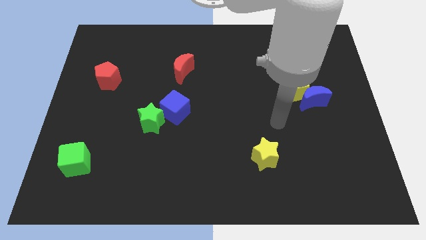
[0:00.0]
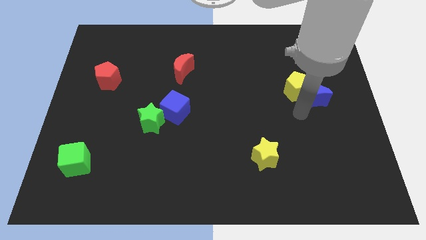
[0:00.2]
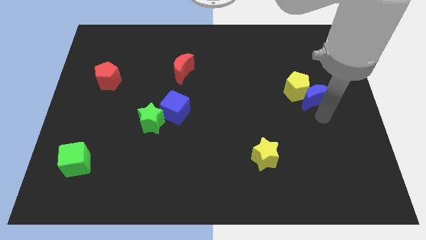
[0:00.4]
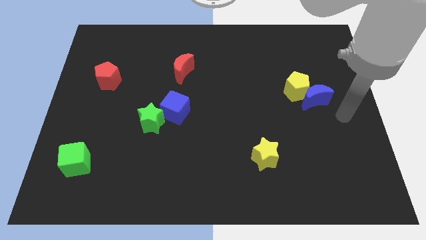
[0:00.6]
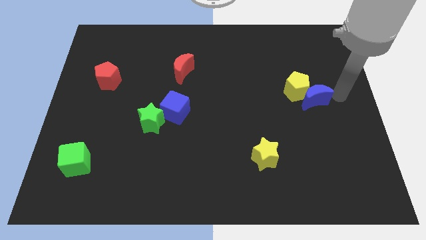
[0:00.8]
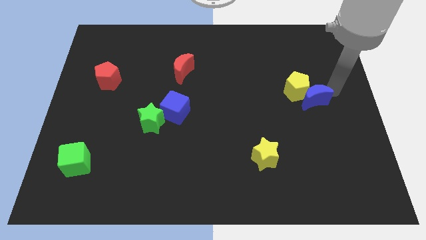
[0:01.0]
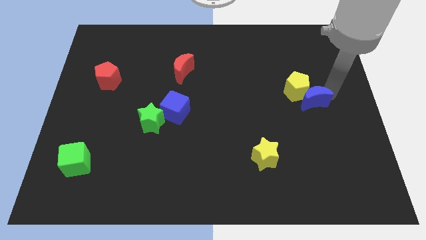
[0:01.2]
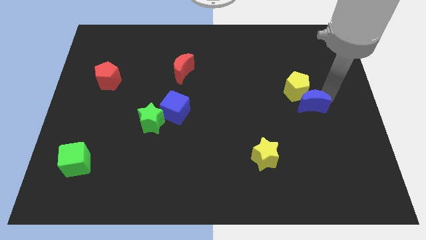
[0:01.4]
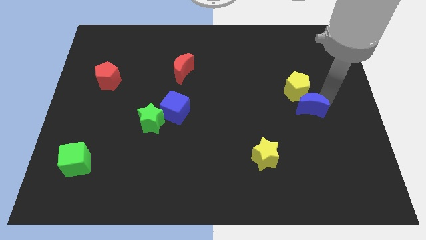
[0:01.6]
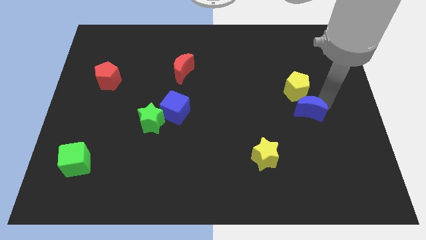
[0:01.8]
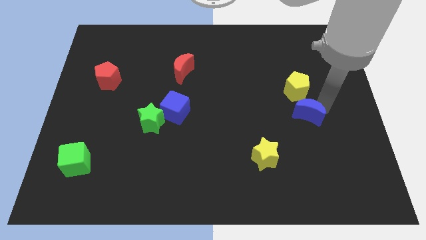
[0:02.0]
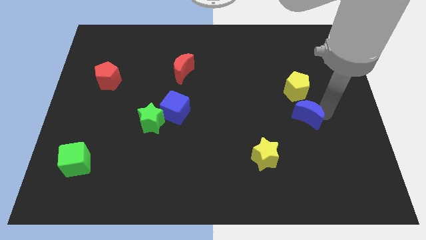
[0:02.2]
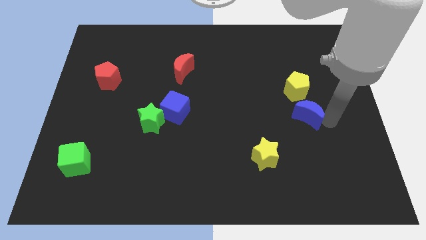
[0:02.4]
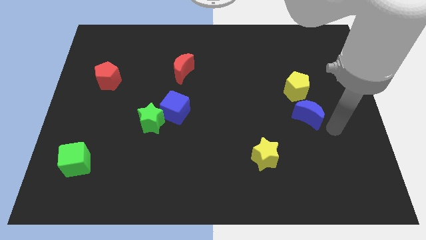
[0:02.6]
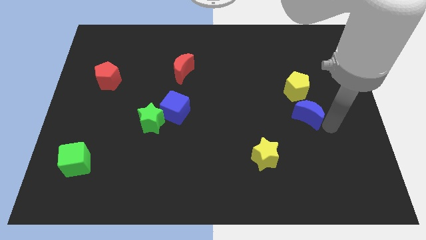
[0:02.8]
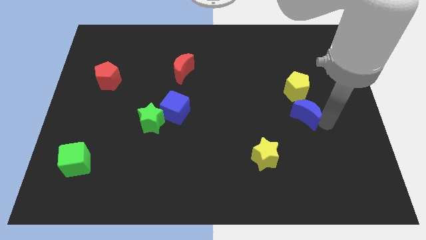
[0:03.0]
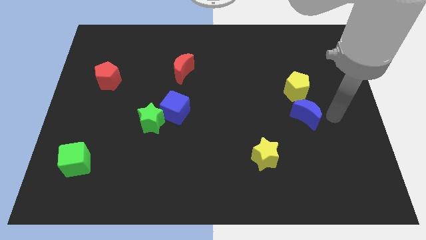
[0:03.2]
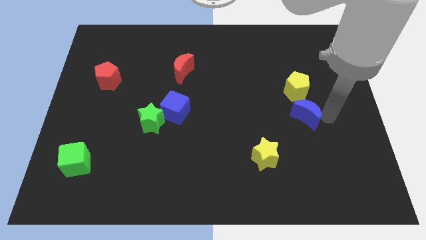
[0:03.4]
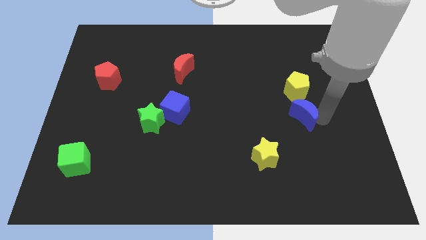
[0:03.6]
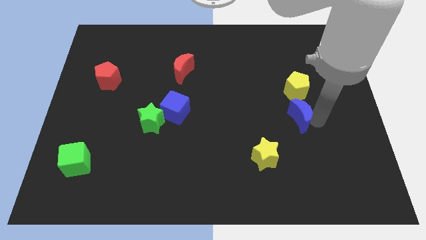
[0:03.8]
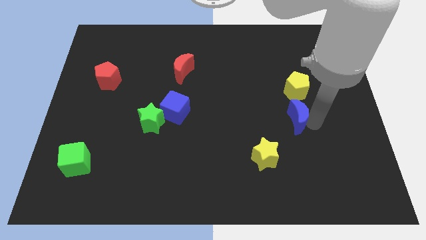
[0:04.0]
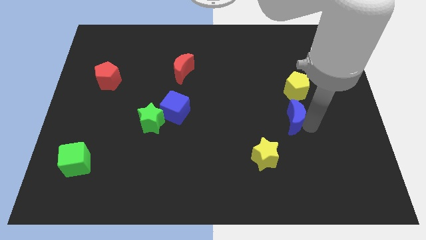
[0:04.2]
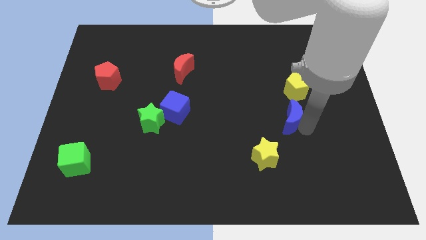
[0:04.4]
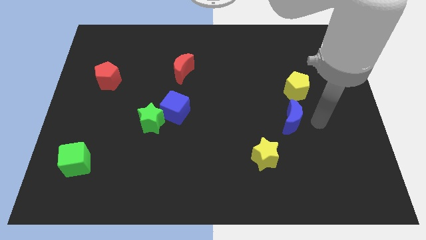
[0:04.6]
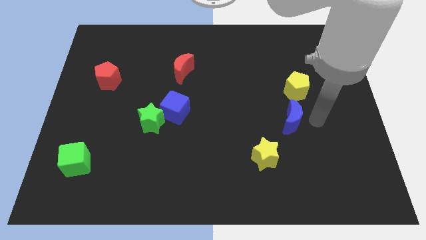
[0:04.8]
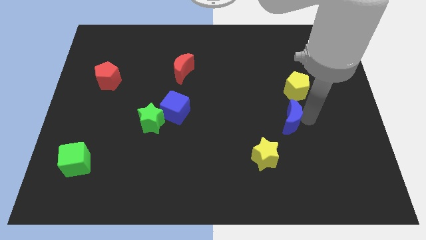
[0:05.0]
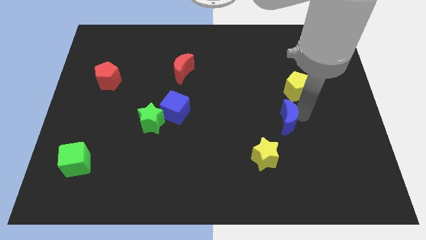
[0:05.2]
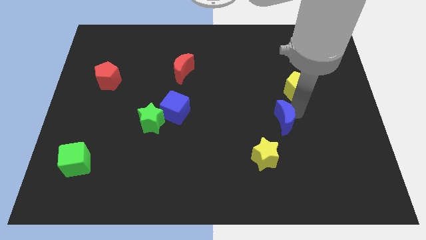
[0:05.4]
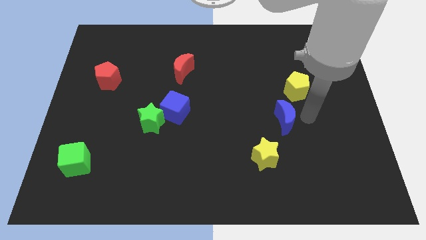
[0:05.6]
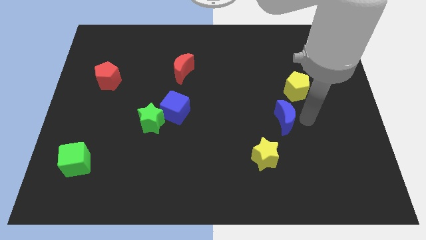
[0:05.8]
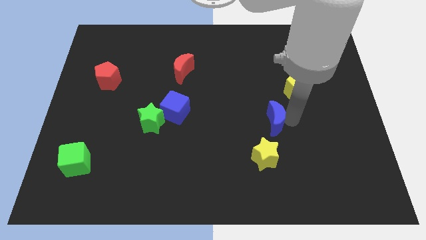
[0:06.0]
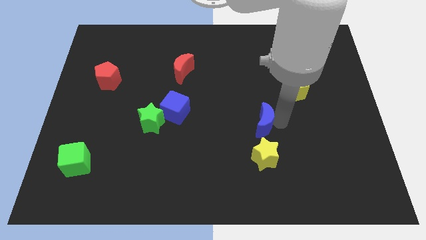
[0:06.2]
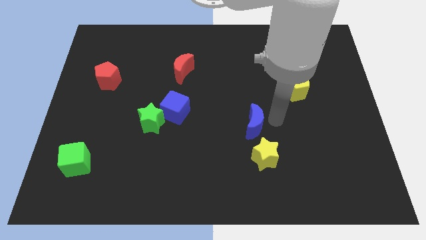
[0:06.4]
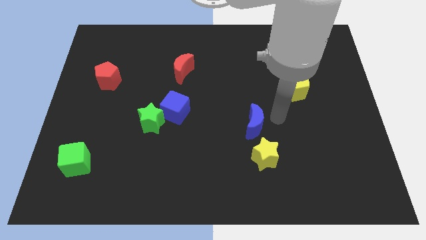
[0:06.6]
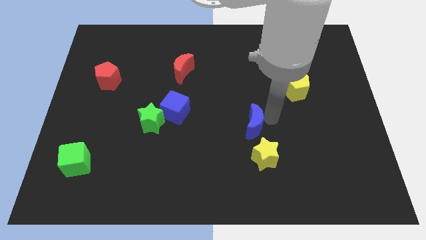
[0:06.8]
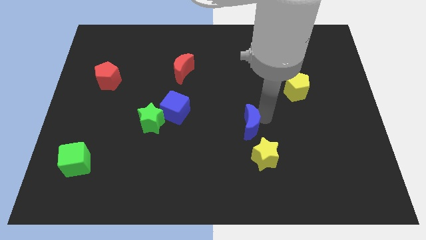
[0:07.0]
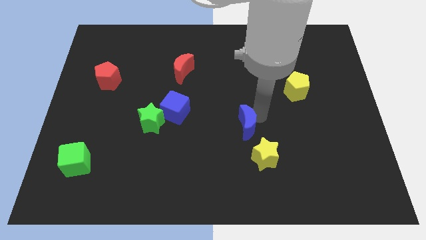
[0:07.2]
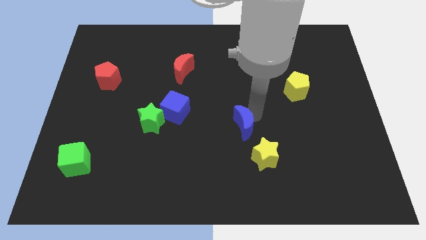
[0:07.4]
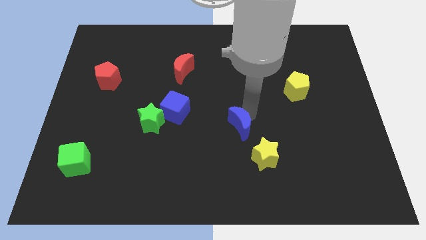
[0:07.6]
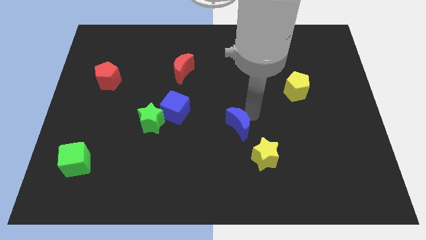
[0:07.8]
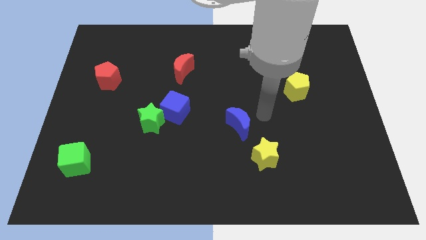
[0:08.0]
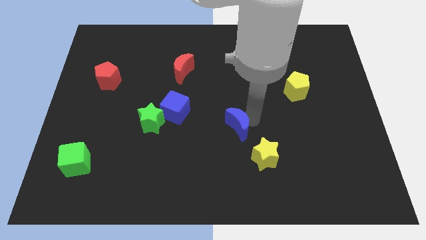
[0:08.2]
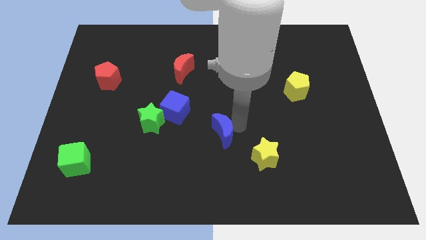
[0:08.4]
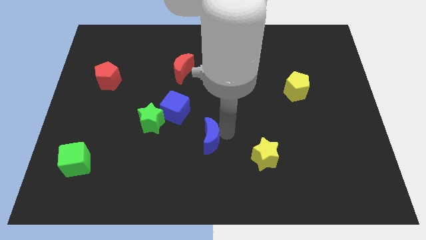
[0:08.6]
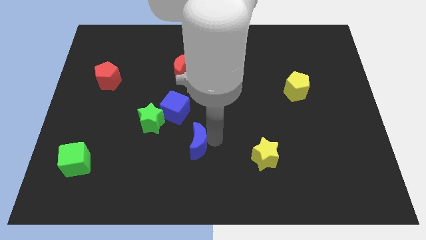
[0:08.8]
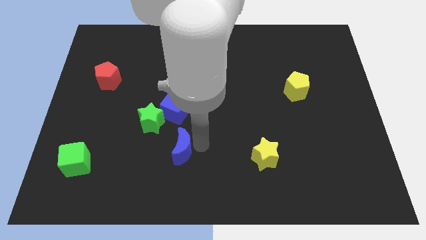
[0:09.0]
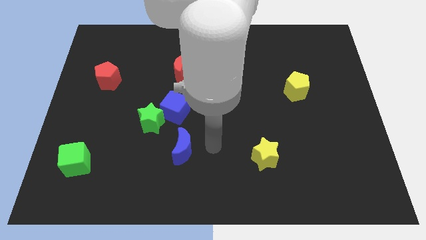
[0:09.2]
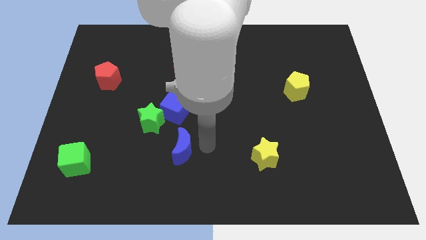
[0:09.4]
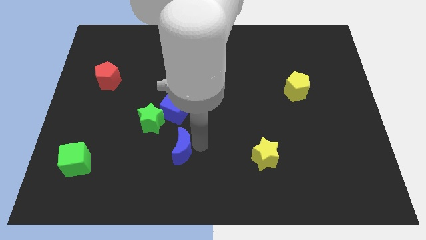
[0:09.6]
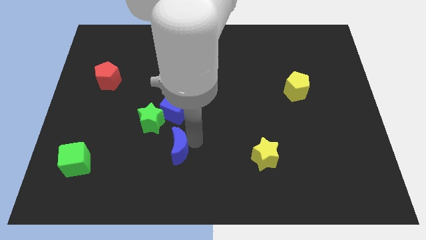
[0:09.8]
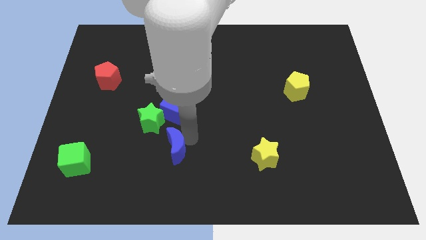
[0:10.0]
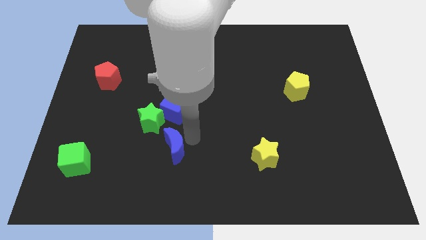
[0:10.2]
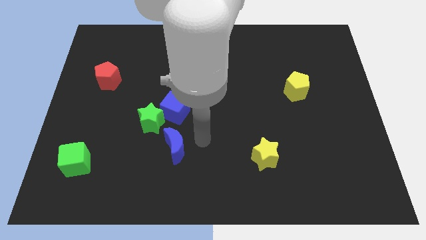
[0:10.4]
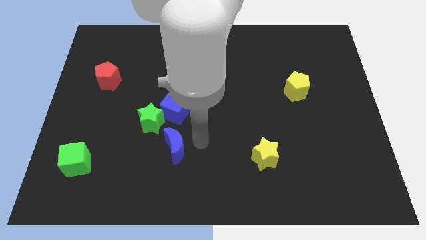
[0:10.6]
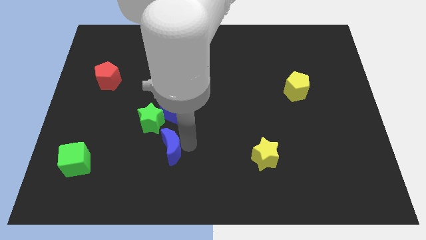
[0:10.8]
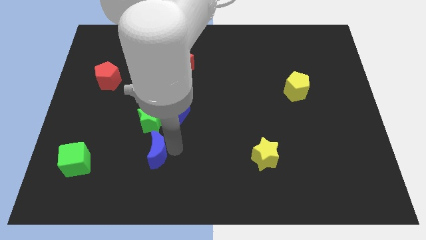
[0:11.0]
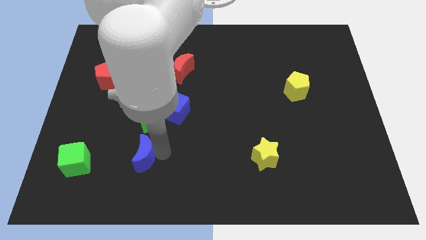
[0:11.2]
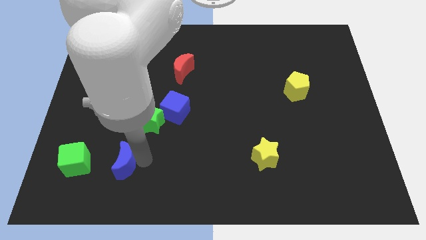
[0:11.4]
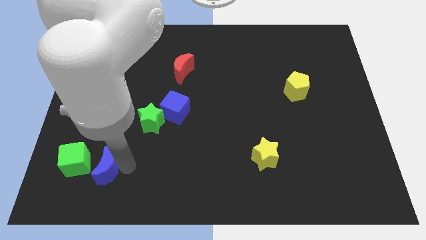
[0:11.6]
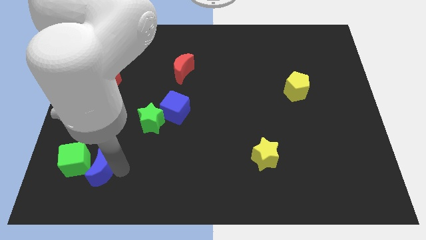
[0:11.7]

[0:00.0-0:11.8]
push the blue moon close to the green cube

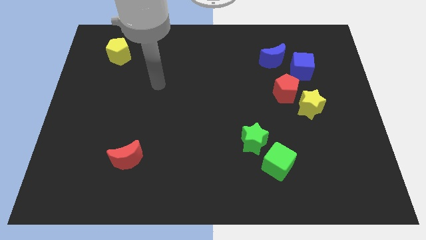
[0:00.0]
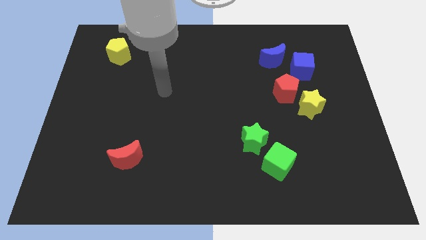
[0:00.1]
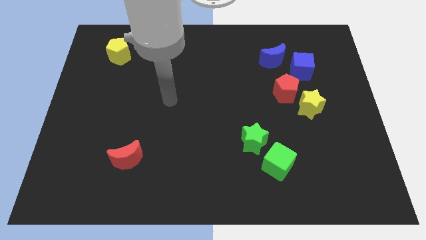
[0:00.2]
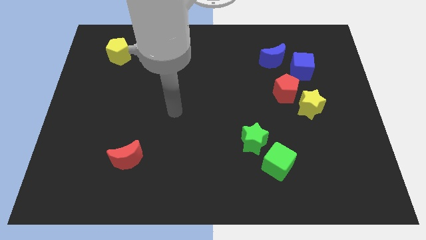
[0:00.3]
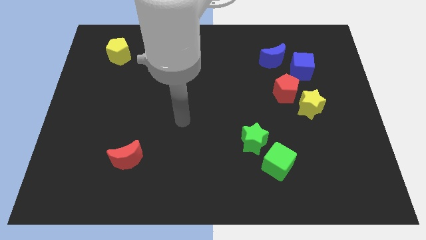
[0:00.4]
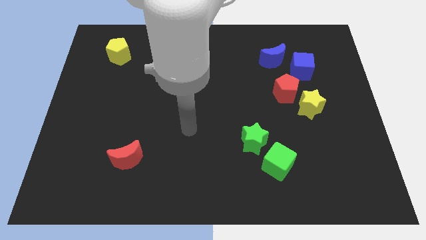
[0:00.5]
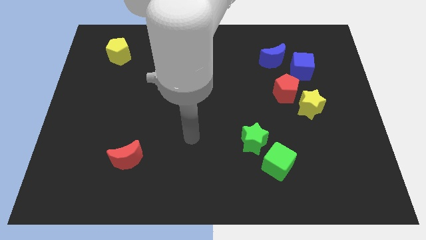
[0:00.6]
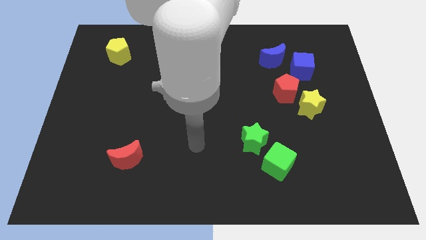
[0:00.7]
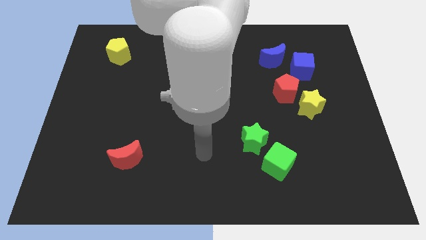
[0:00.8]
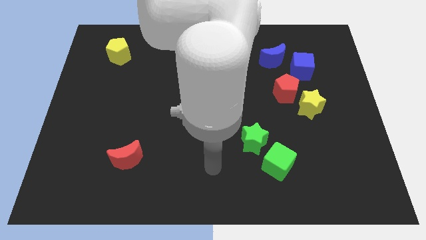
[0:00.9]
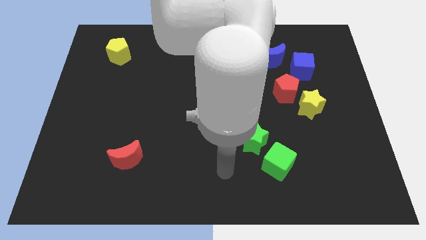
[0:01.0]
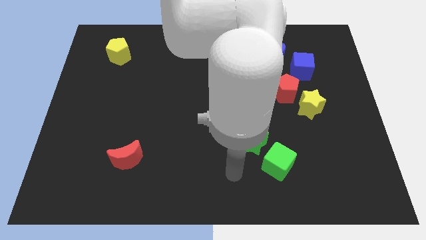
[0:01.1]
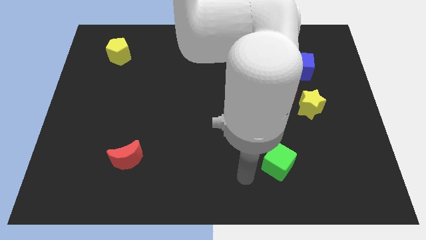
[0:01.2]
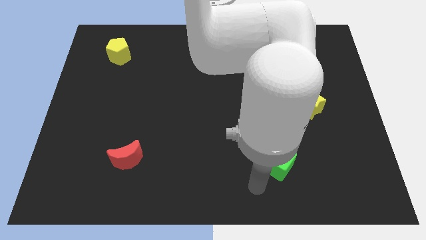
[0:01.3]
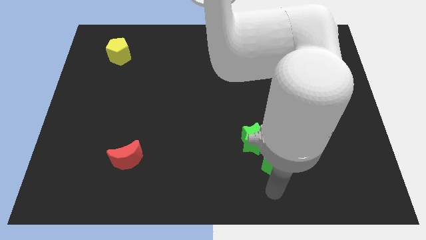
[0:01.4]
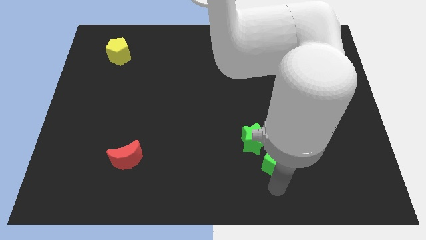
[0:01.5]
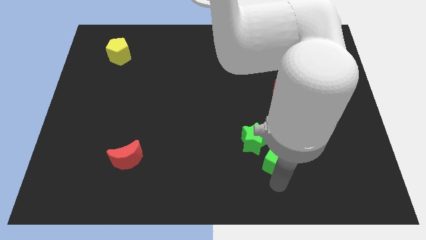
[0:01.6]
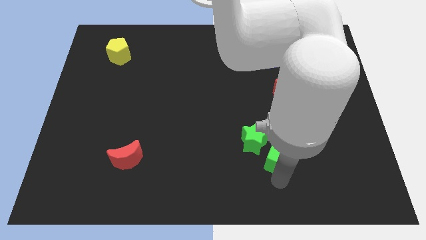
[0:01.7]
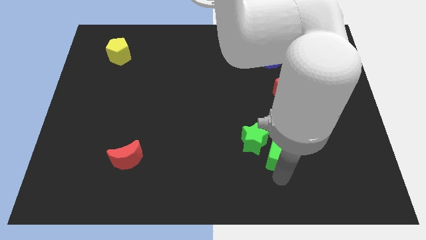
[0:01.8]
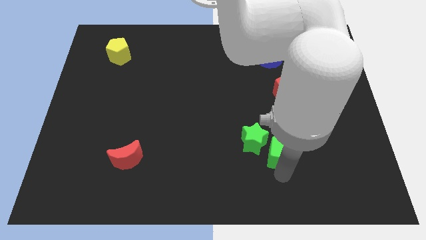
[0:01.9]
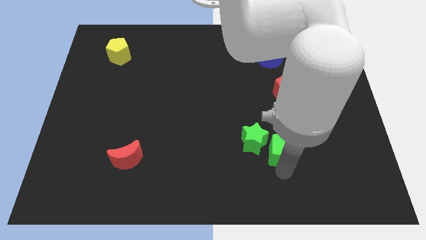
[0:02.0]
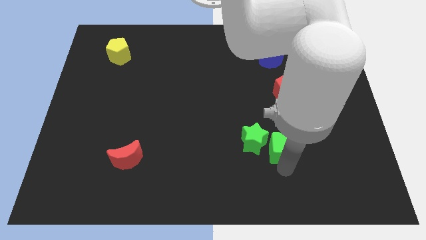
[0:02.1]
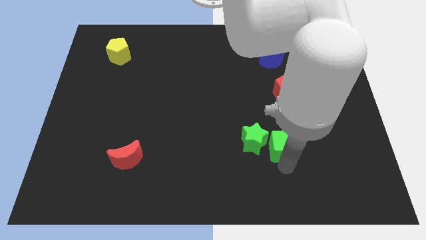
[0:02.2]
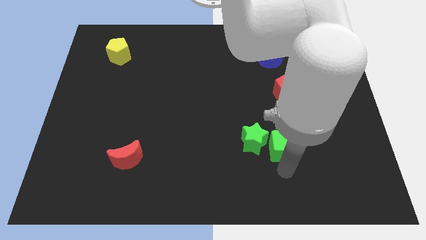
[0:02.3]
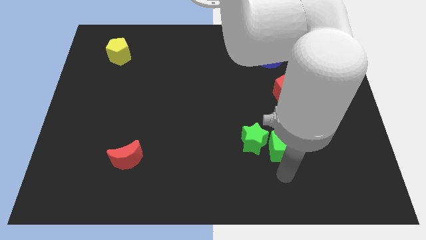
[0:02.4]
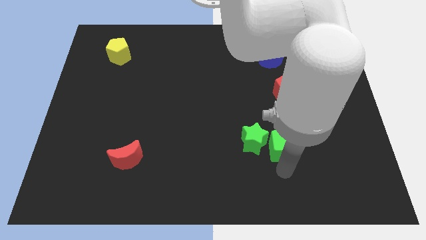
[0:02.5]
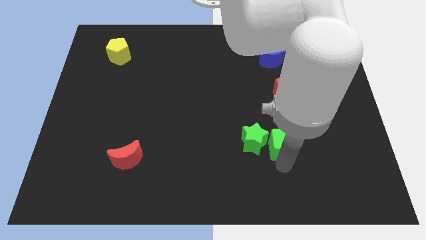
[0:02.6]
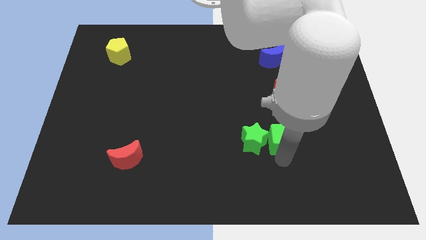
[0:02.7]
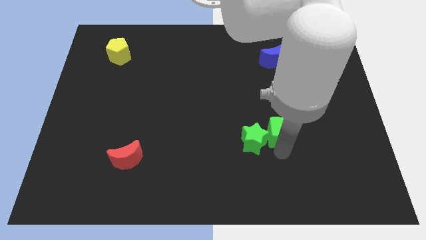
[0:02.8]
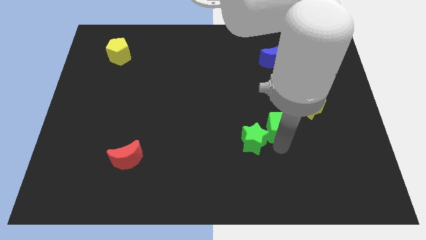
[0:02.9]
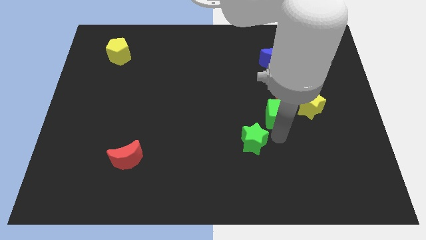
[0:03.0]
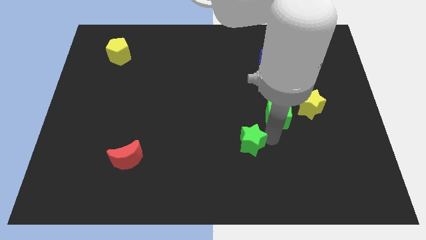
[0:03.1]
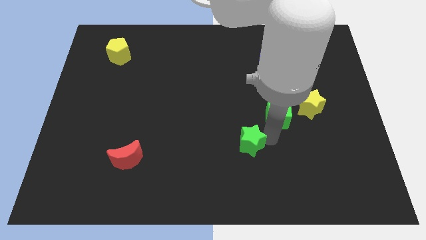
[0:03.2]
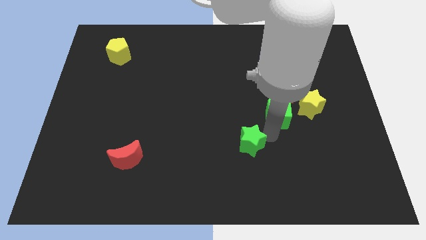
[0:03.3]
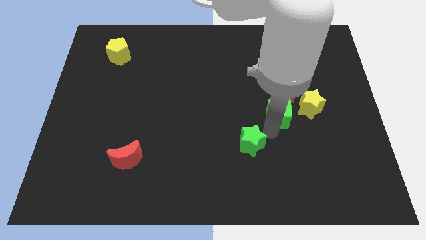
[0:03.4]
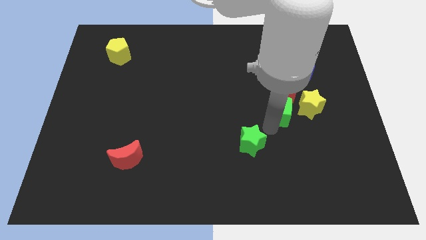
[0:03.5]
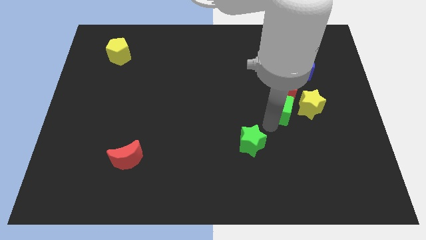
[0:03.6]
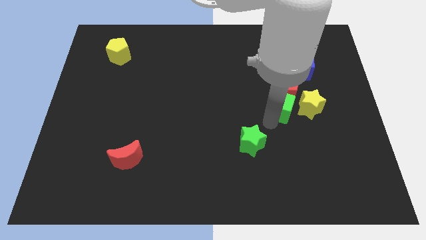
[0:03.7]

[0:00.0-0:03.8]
slide the green cube close to the red pentagon
